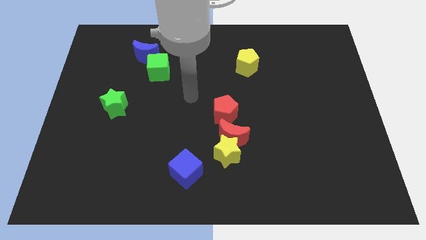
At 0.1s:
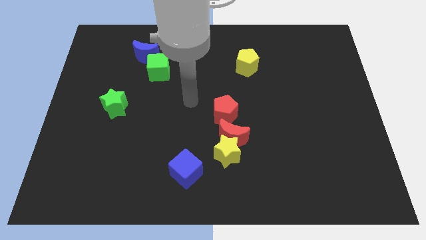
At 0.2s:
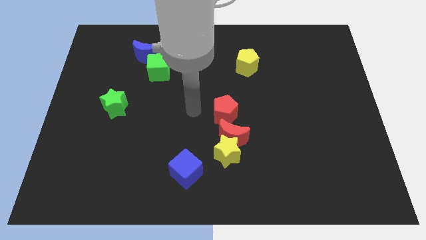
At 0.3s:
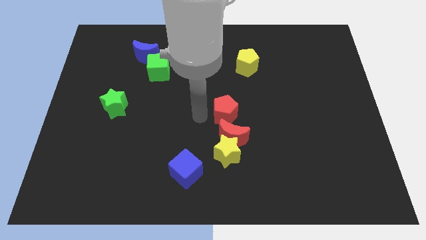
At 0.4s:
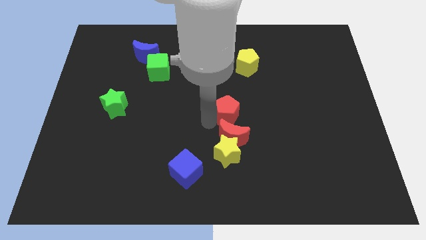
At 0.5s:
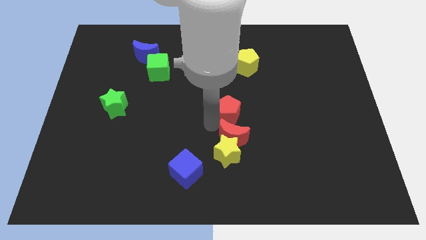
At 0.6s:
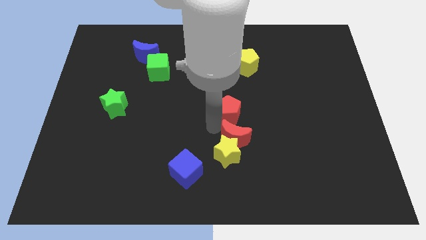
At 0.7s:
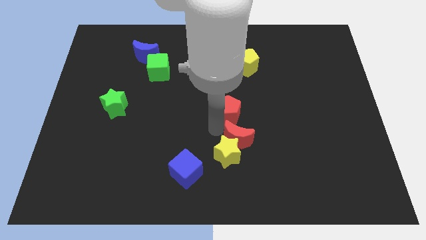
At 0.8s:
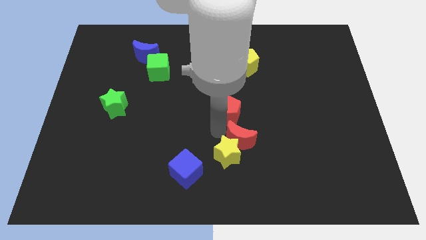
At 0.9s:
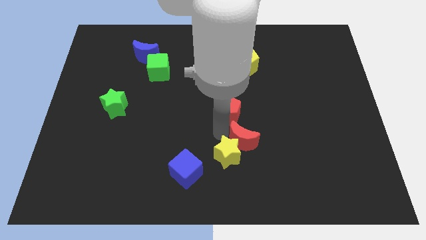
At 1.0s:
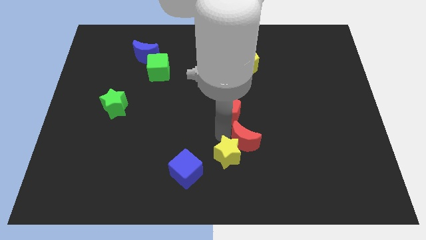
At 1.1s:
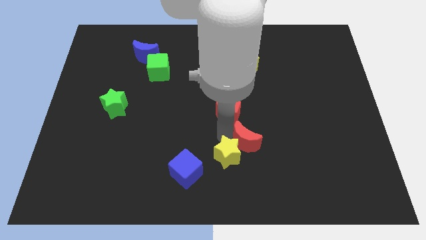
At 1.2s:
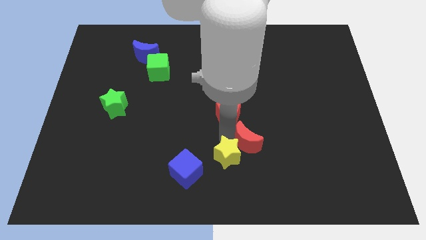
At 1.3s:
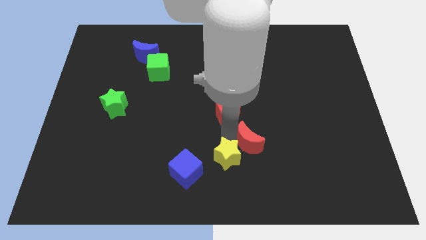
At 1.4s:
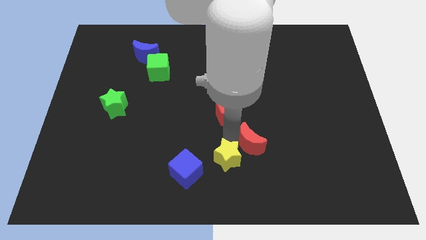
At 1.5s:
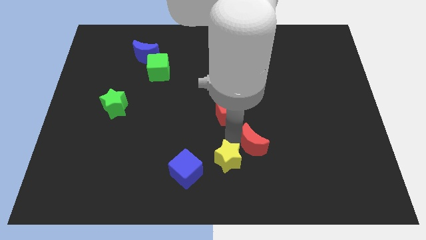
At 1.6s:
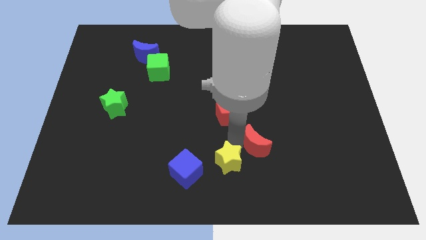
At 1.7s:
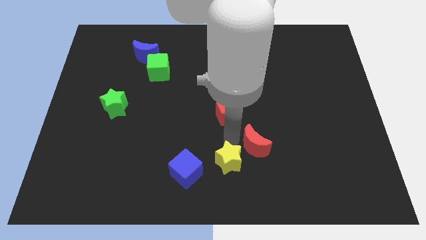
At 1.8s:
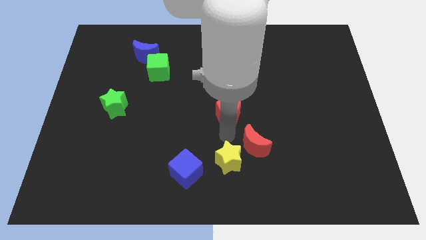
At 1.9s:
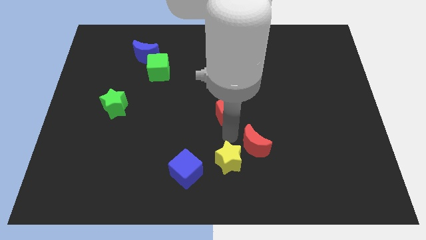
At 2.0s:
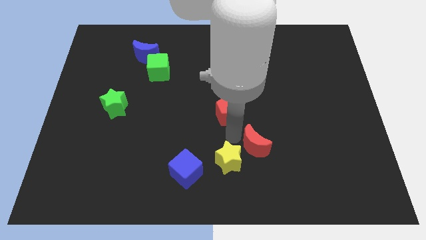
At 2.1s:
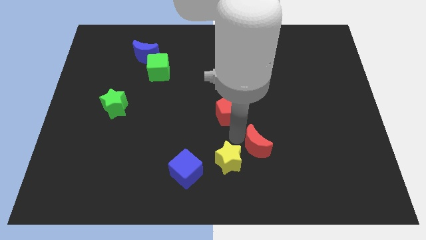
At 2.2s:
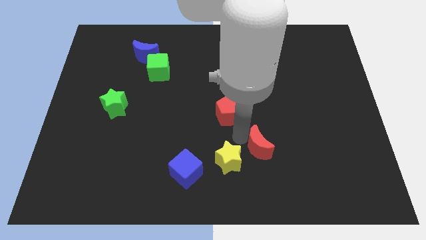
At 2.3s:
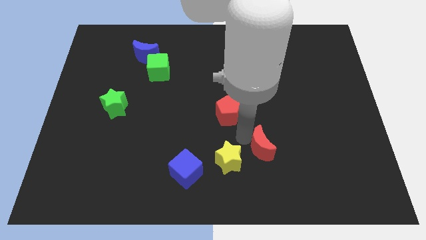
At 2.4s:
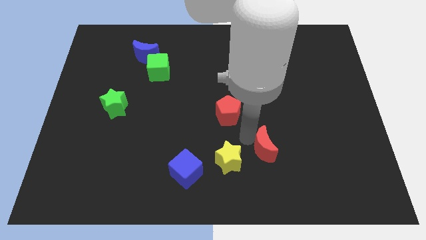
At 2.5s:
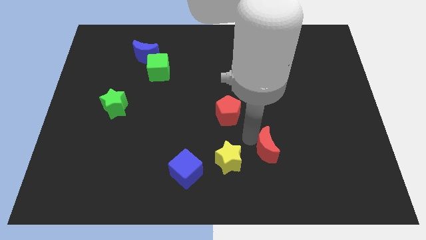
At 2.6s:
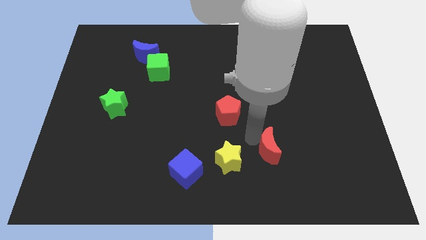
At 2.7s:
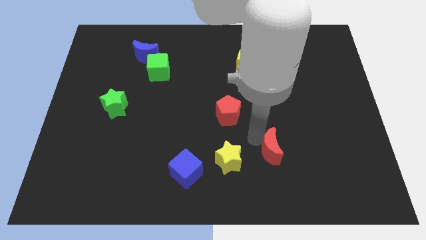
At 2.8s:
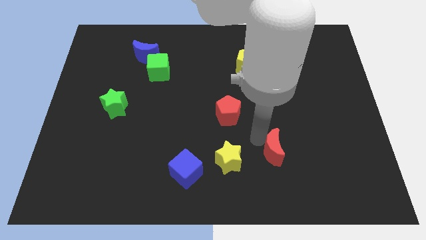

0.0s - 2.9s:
move the red moon away from the yellow star and red pentagon

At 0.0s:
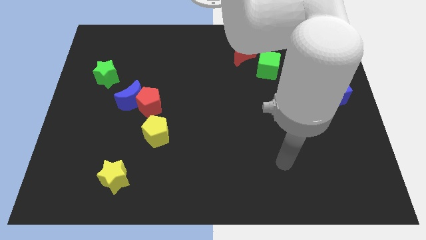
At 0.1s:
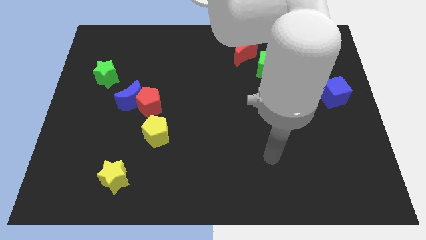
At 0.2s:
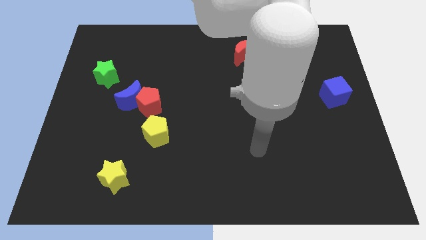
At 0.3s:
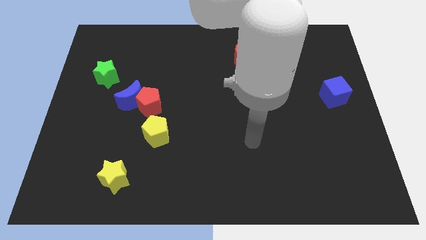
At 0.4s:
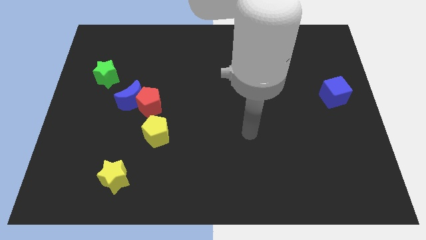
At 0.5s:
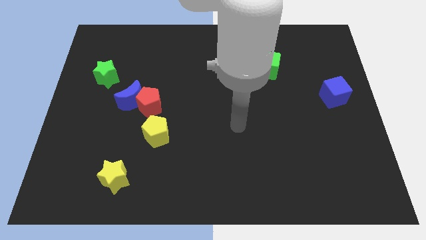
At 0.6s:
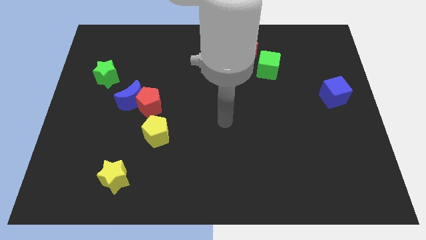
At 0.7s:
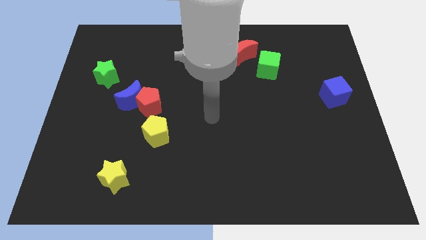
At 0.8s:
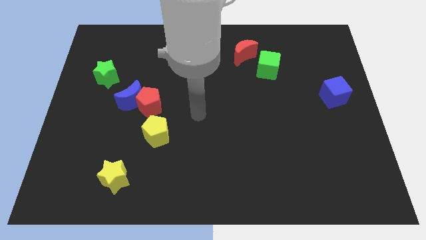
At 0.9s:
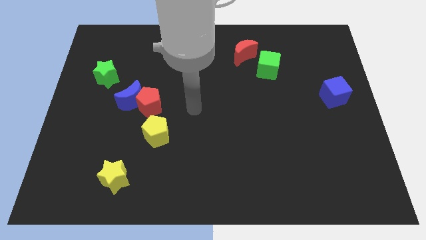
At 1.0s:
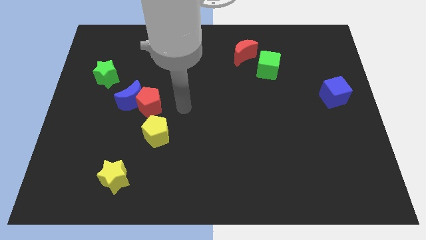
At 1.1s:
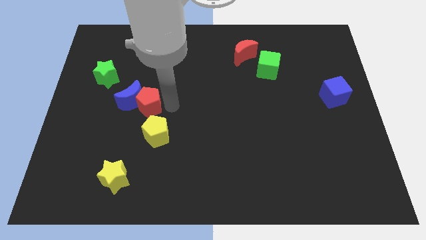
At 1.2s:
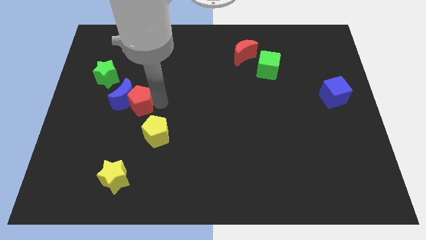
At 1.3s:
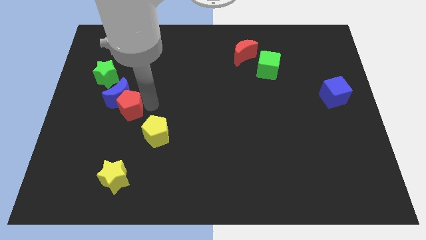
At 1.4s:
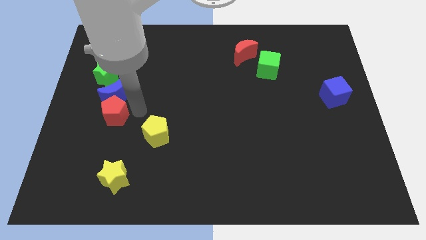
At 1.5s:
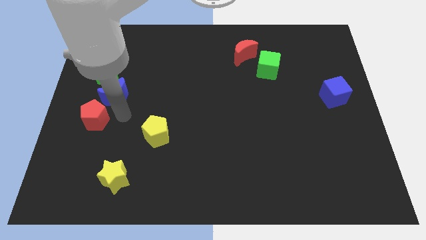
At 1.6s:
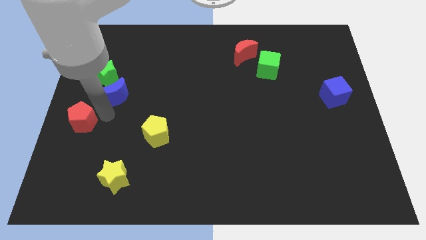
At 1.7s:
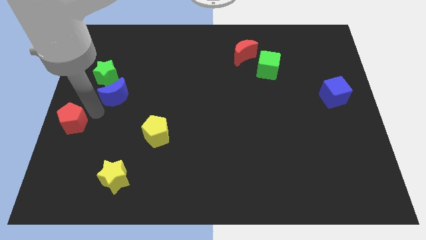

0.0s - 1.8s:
pull the blue moon apart from the red pentagon

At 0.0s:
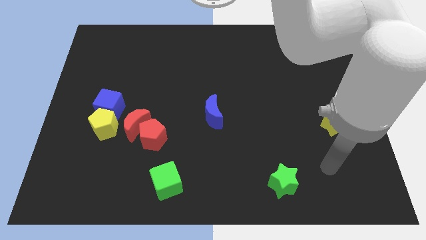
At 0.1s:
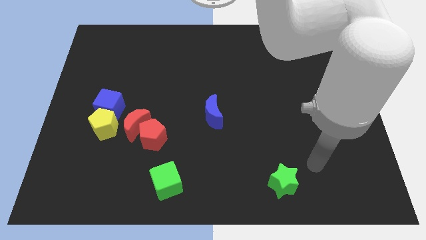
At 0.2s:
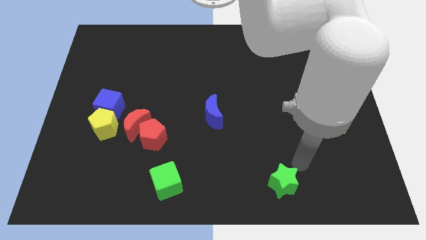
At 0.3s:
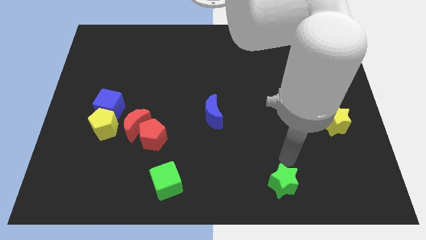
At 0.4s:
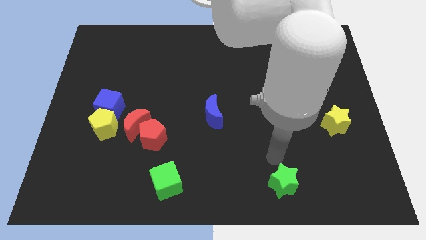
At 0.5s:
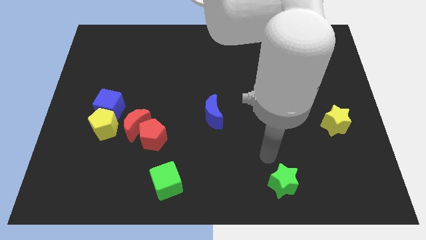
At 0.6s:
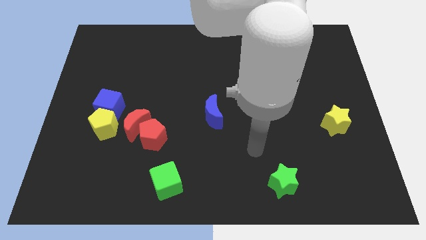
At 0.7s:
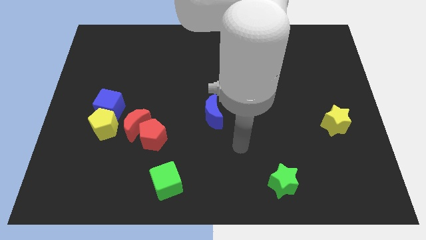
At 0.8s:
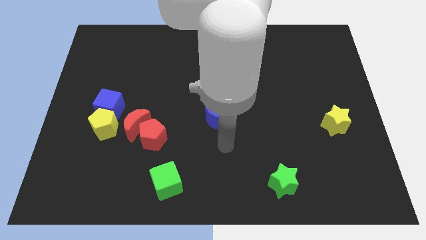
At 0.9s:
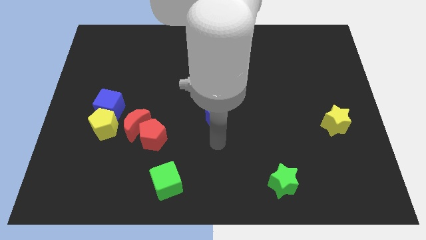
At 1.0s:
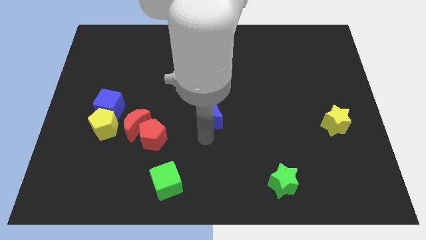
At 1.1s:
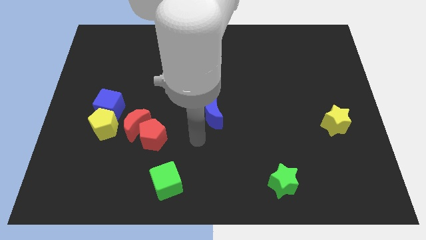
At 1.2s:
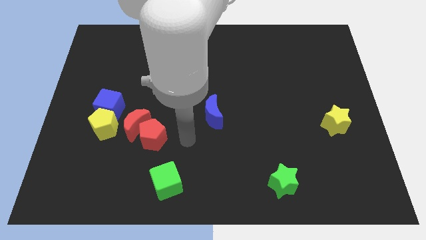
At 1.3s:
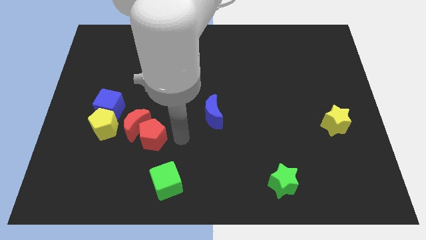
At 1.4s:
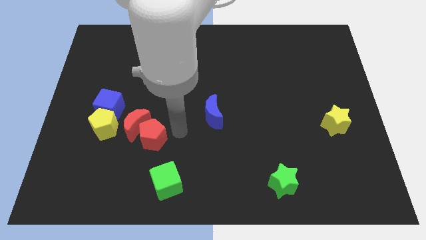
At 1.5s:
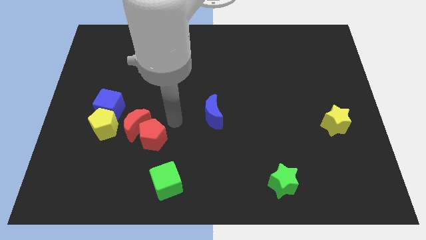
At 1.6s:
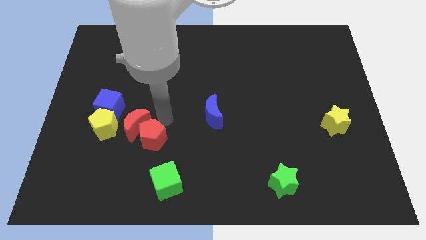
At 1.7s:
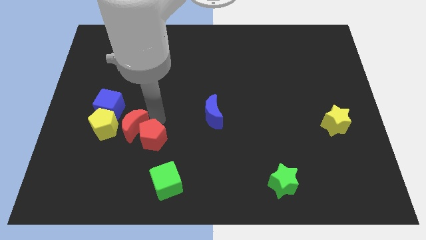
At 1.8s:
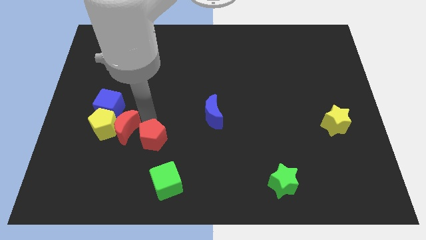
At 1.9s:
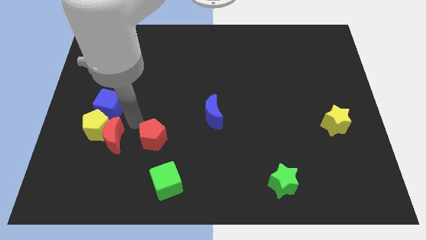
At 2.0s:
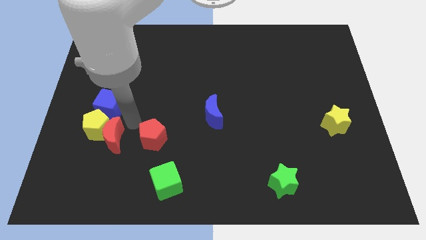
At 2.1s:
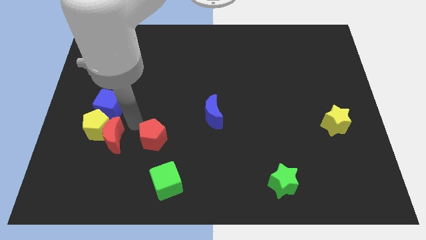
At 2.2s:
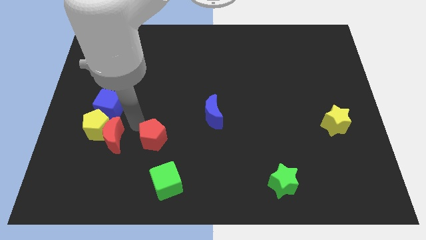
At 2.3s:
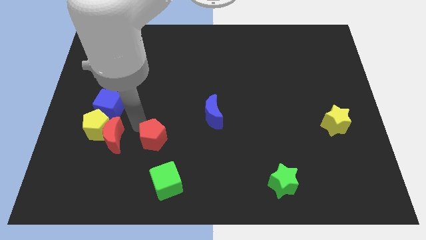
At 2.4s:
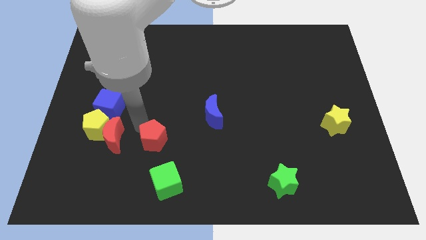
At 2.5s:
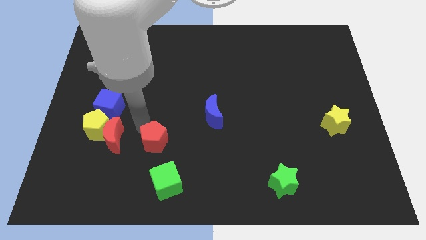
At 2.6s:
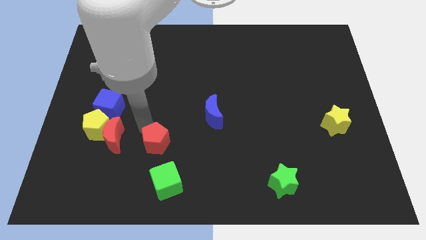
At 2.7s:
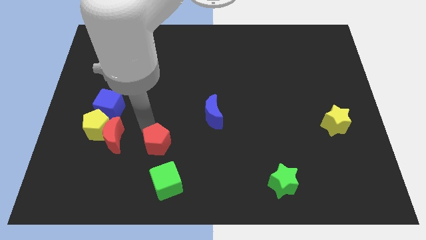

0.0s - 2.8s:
pull the red pentagon apart from the red moon

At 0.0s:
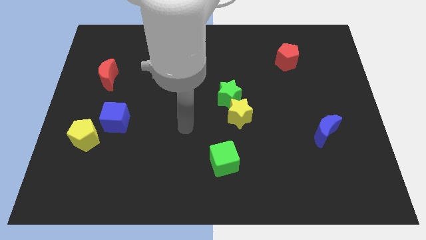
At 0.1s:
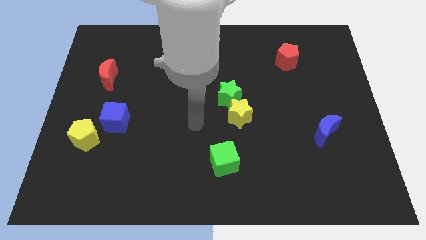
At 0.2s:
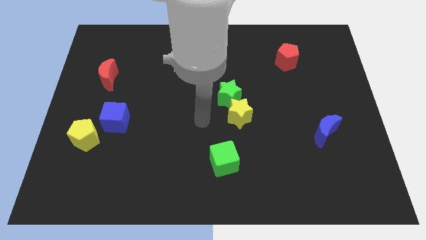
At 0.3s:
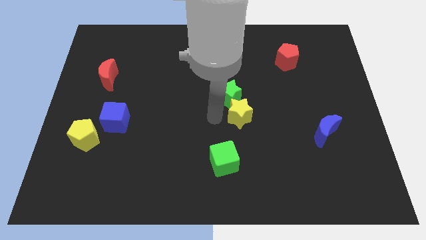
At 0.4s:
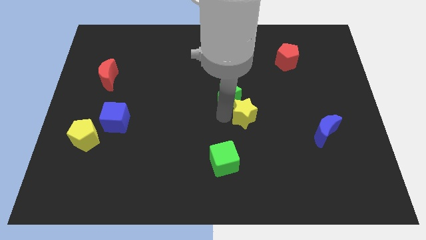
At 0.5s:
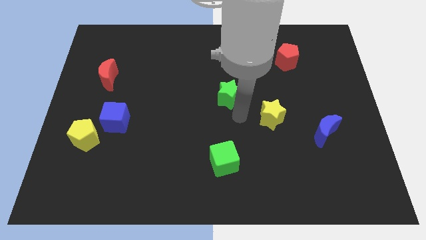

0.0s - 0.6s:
pull the green star apart from the yellow star

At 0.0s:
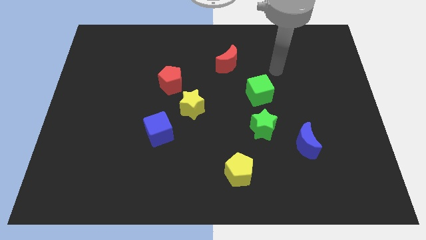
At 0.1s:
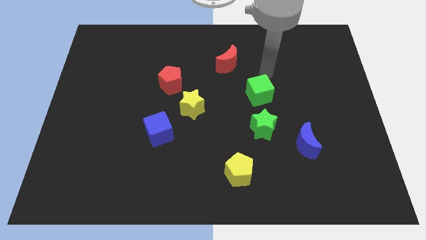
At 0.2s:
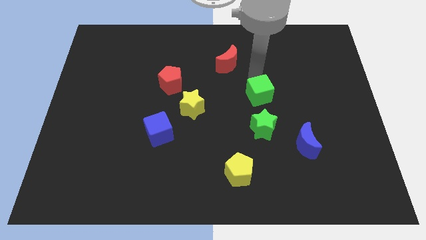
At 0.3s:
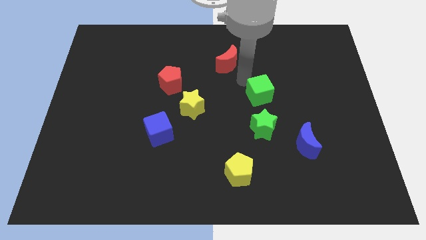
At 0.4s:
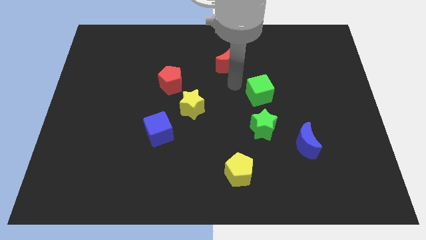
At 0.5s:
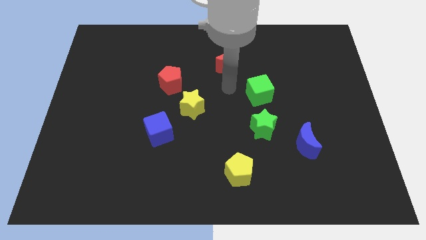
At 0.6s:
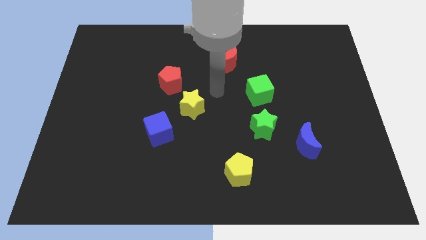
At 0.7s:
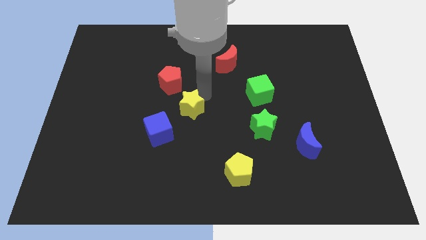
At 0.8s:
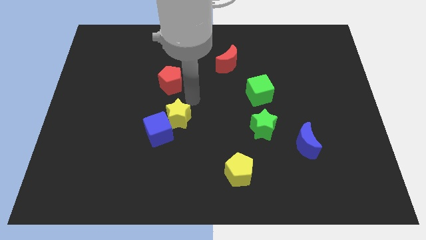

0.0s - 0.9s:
pull the red pentagon apart from the yellow star

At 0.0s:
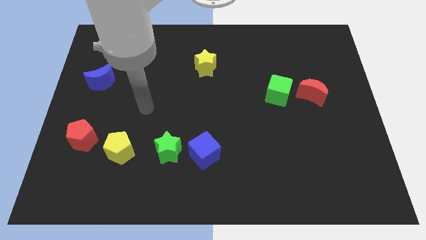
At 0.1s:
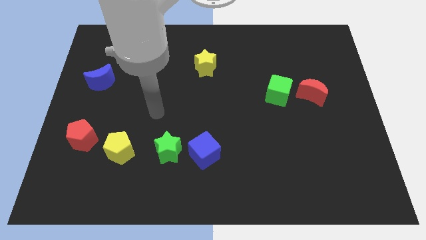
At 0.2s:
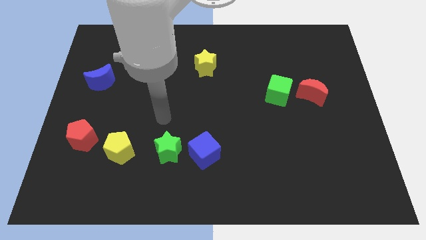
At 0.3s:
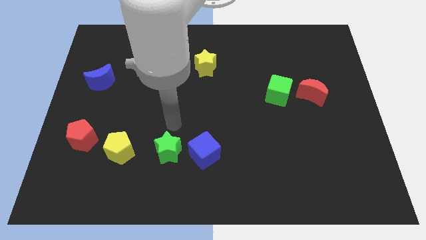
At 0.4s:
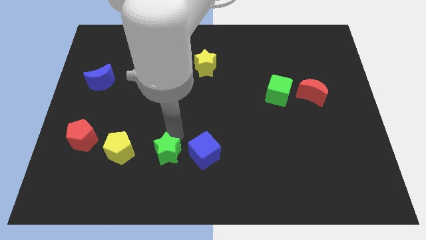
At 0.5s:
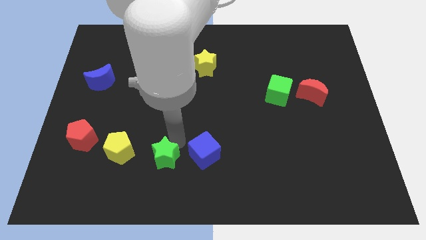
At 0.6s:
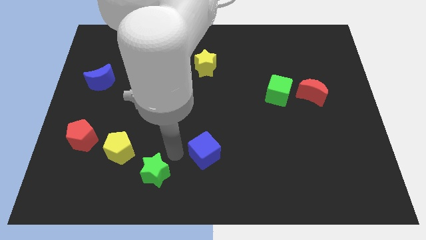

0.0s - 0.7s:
move the blue cube away from the green star
